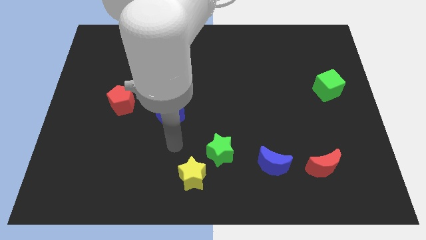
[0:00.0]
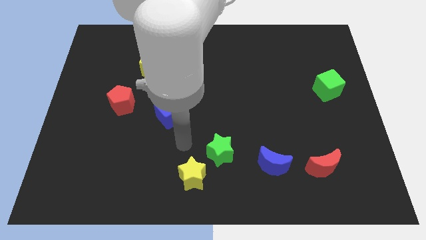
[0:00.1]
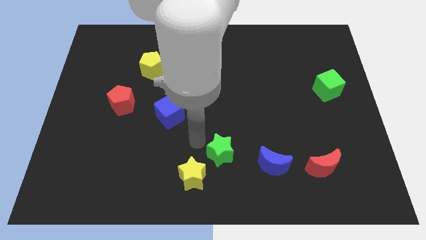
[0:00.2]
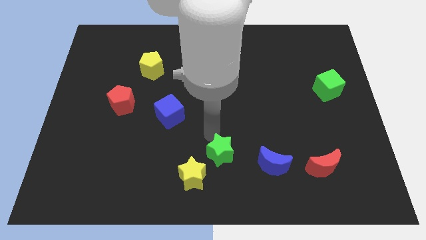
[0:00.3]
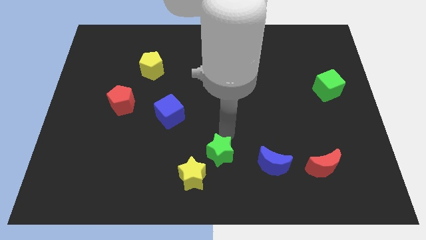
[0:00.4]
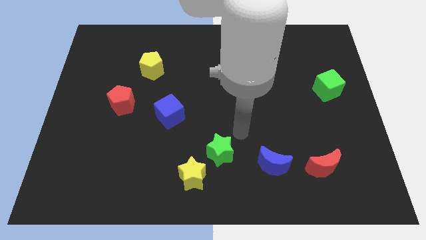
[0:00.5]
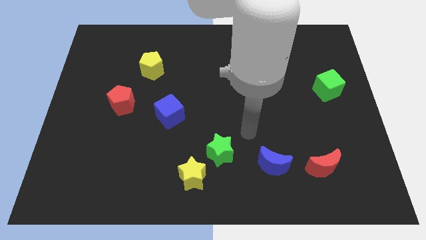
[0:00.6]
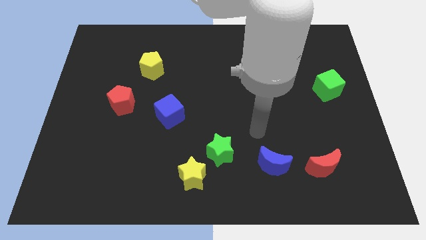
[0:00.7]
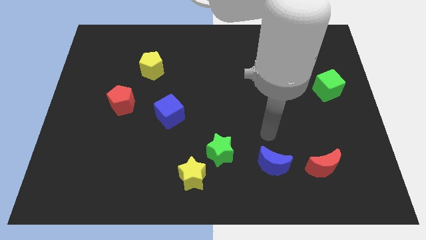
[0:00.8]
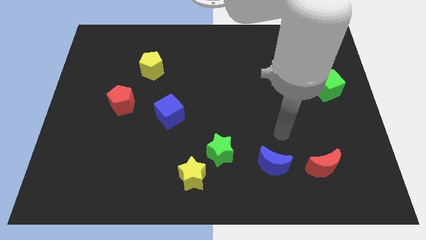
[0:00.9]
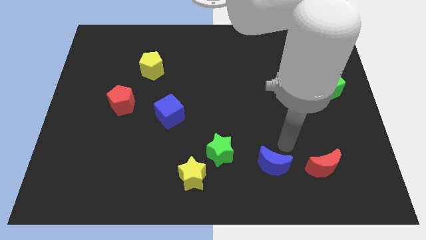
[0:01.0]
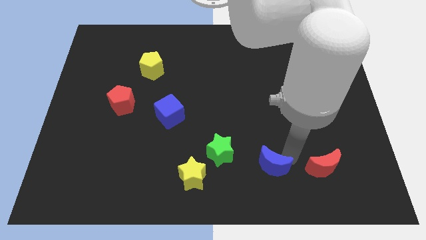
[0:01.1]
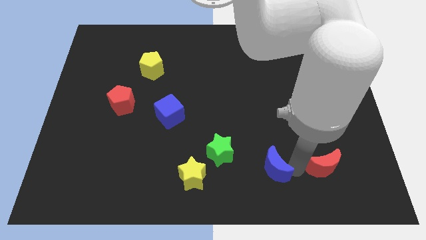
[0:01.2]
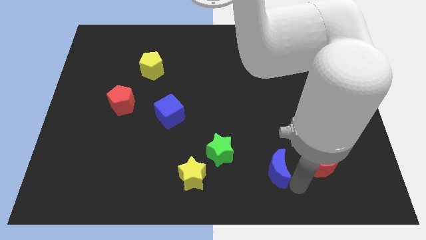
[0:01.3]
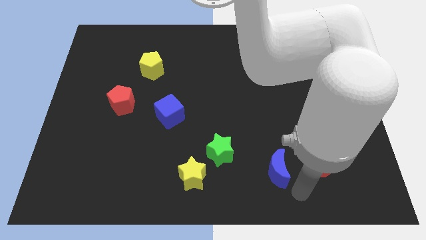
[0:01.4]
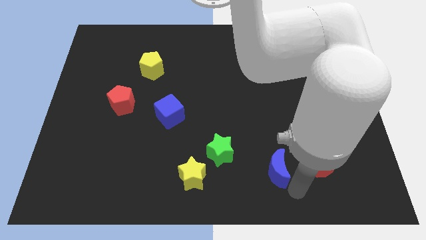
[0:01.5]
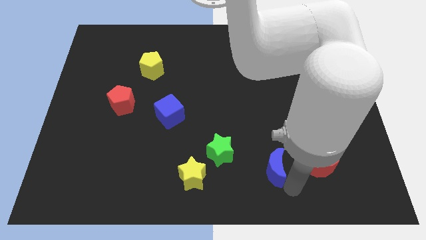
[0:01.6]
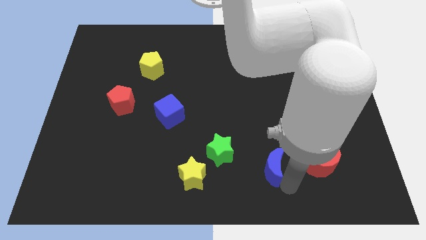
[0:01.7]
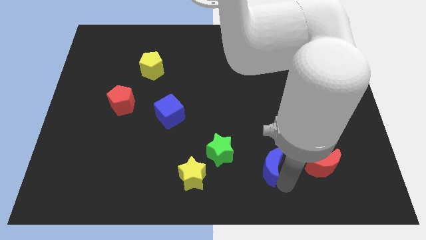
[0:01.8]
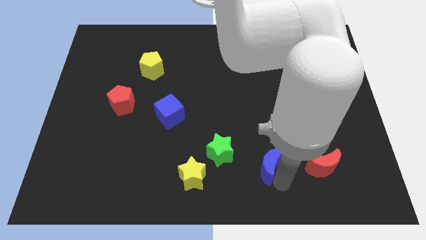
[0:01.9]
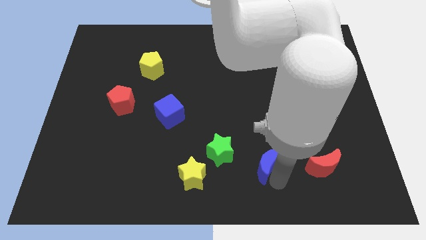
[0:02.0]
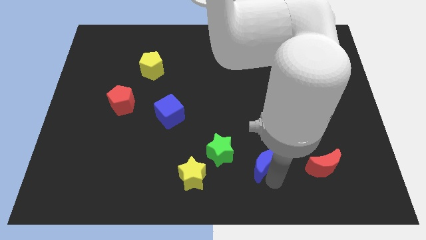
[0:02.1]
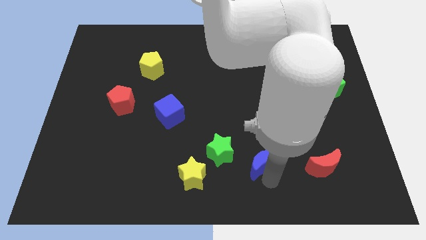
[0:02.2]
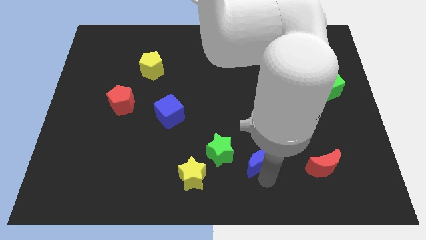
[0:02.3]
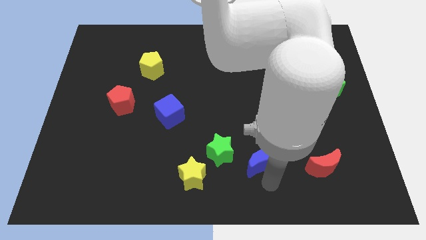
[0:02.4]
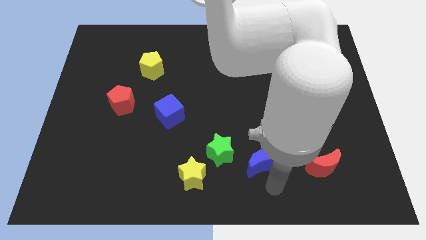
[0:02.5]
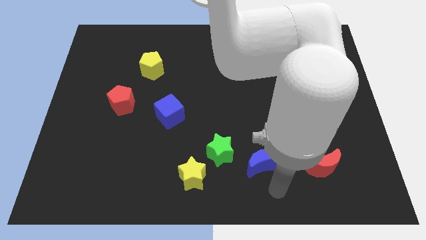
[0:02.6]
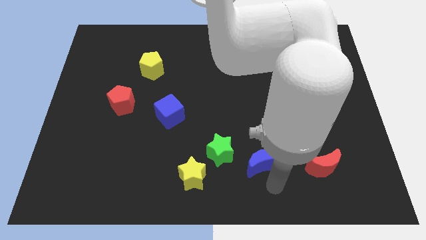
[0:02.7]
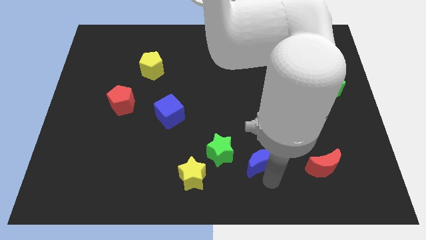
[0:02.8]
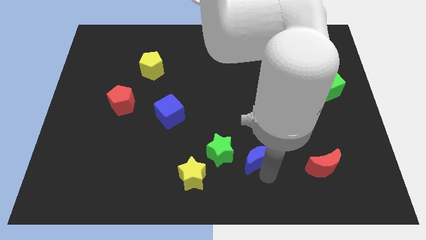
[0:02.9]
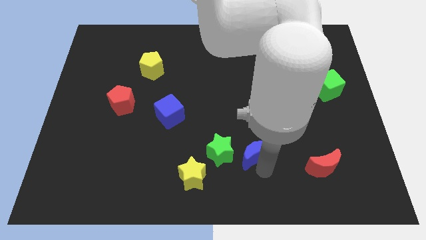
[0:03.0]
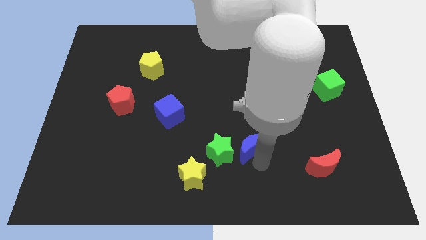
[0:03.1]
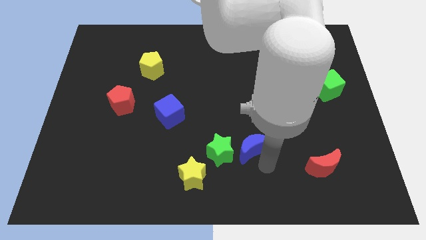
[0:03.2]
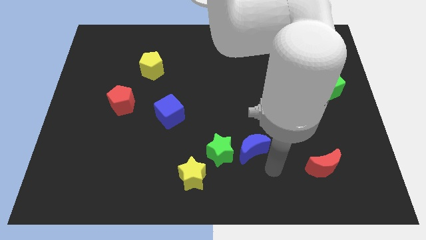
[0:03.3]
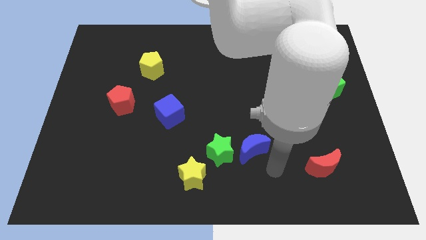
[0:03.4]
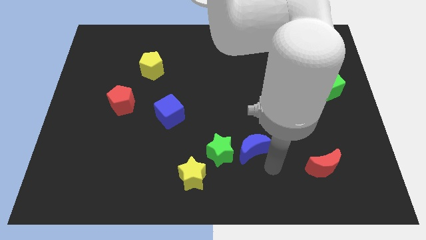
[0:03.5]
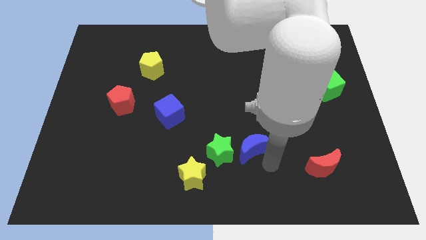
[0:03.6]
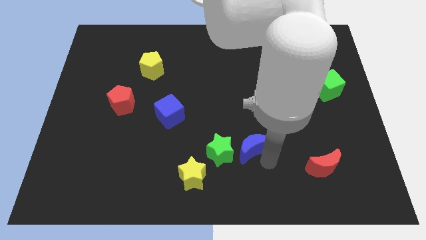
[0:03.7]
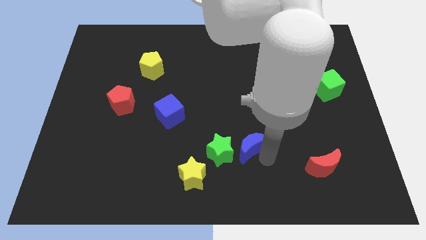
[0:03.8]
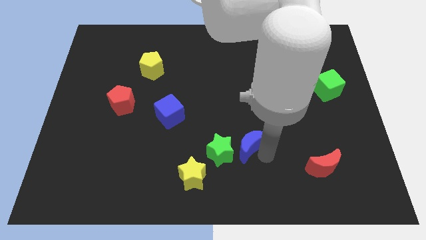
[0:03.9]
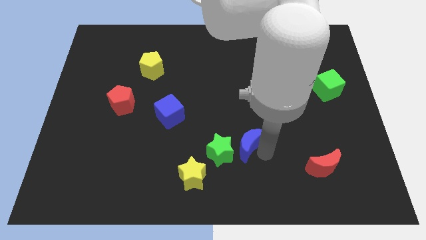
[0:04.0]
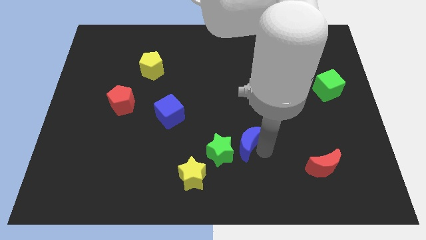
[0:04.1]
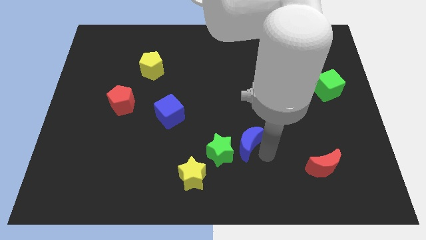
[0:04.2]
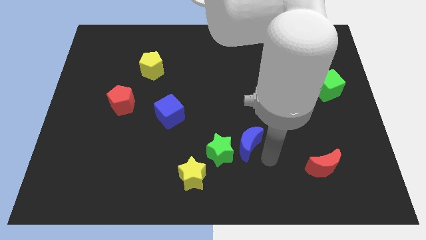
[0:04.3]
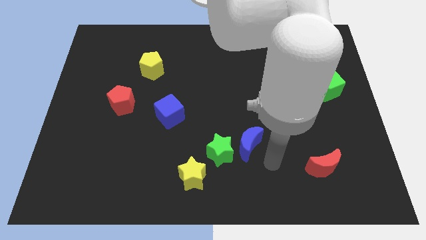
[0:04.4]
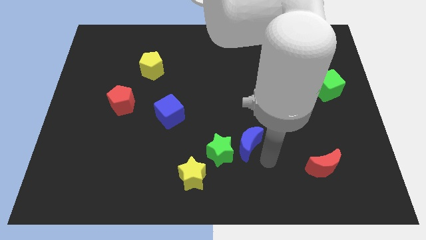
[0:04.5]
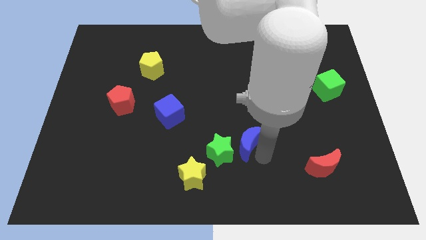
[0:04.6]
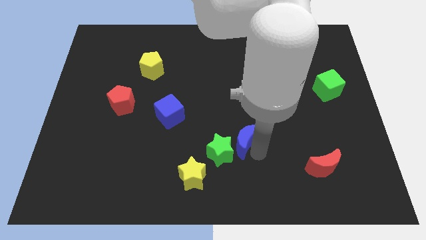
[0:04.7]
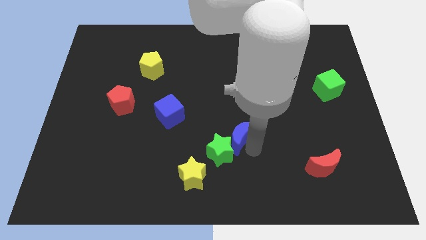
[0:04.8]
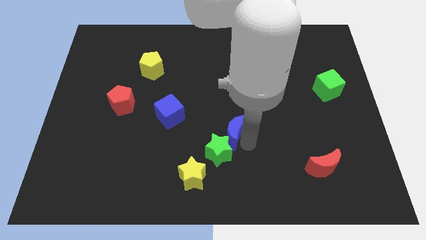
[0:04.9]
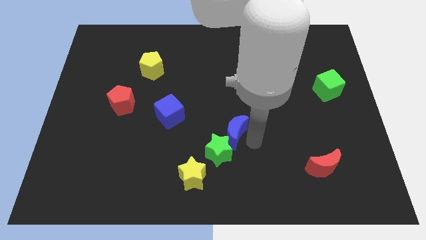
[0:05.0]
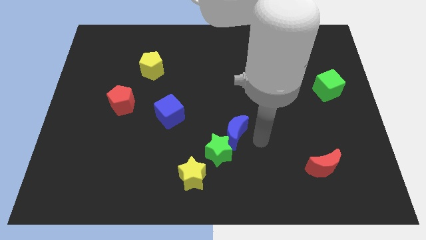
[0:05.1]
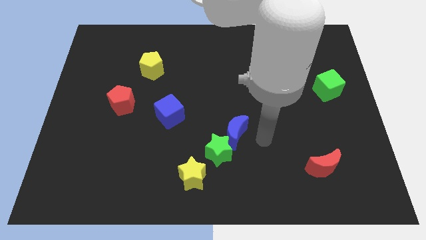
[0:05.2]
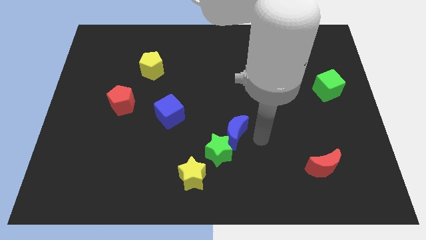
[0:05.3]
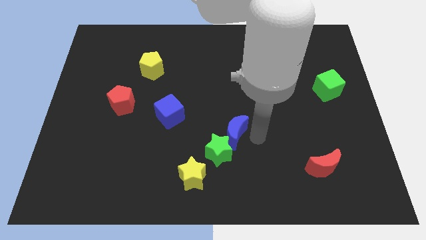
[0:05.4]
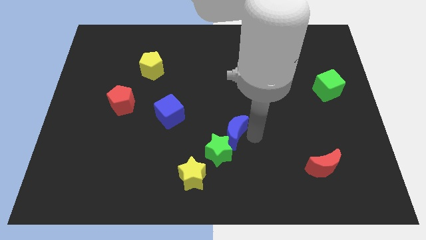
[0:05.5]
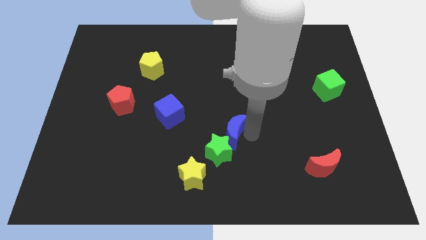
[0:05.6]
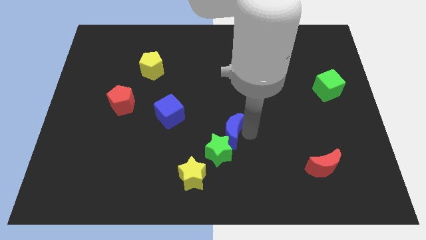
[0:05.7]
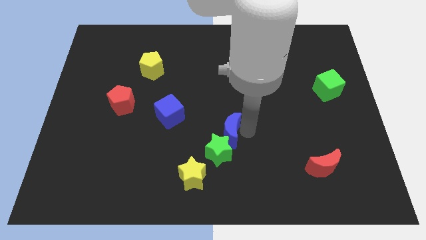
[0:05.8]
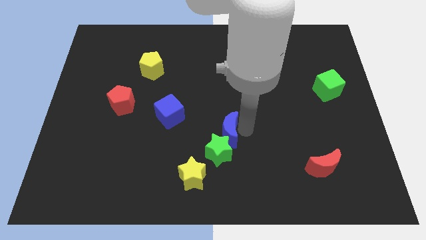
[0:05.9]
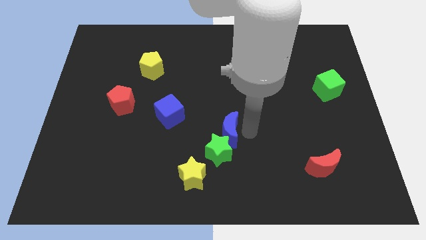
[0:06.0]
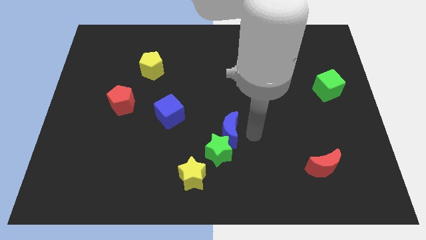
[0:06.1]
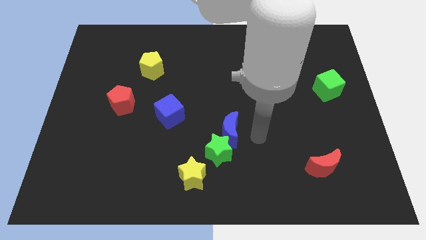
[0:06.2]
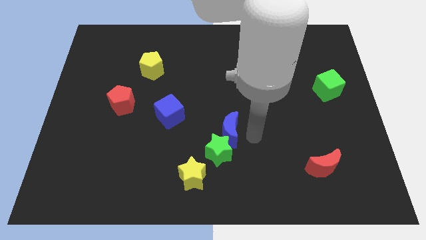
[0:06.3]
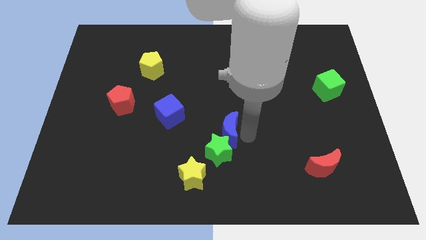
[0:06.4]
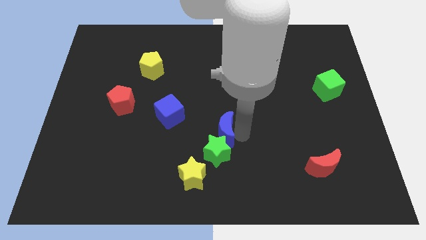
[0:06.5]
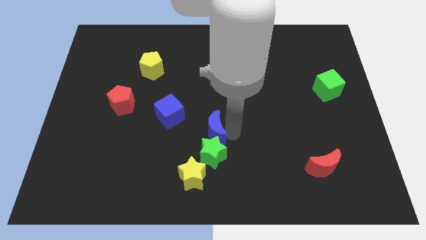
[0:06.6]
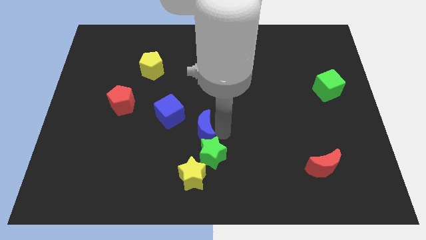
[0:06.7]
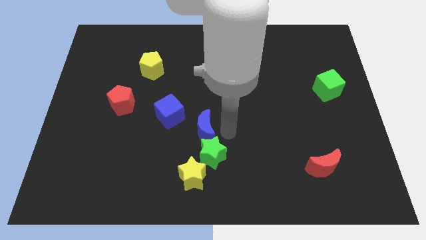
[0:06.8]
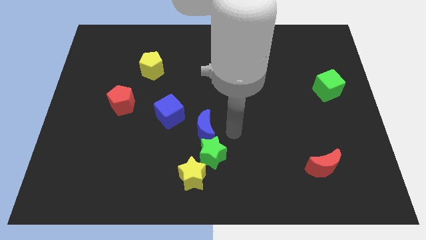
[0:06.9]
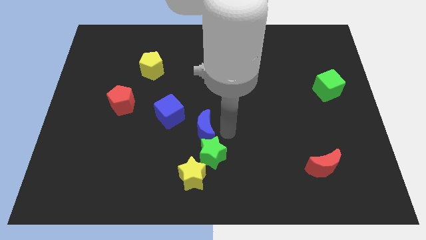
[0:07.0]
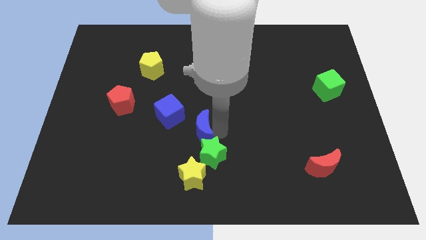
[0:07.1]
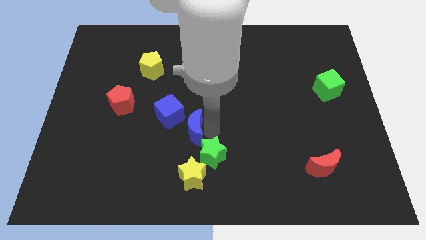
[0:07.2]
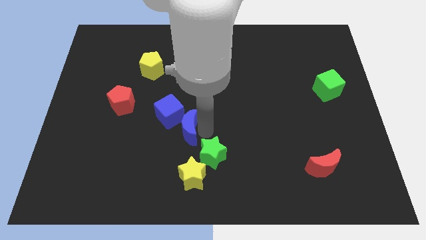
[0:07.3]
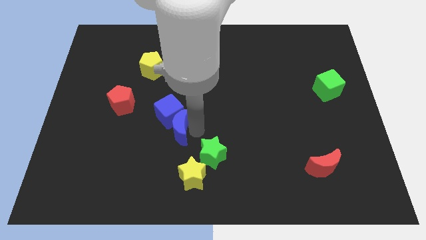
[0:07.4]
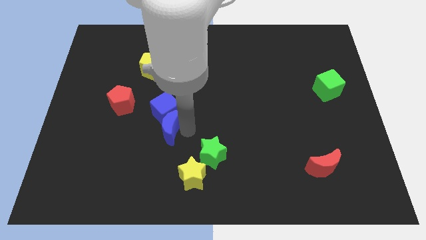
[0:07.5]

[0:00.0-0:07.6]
slide the blue moon to the bottom left of the blue cube

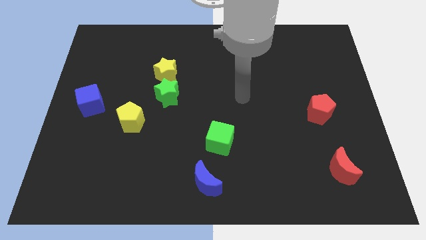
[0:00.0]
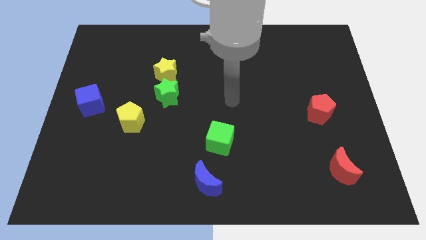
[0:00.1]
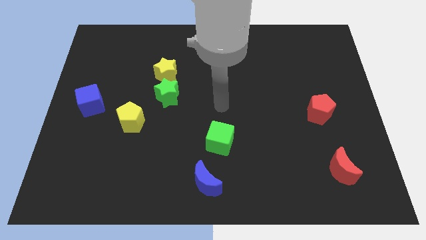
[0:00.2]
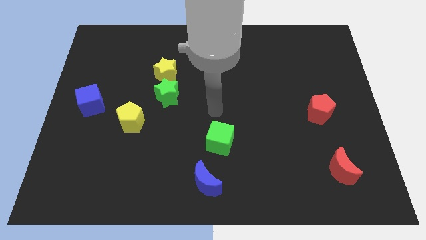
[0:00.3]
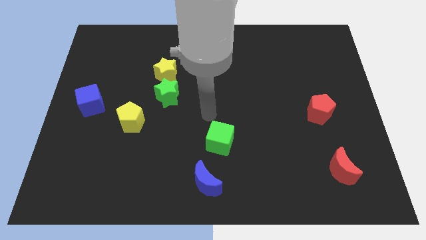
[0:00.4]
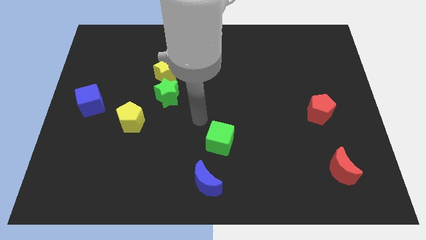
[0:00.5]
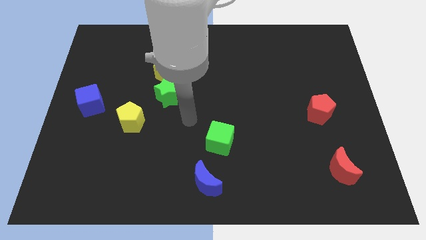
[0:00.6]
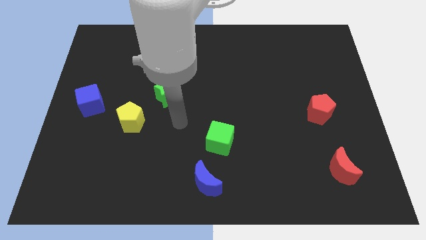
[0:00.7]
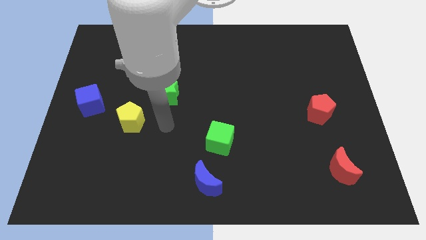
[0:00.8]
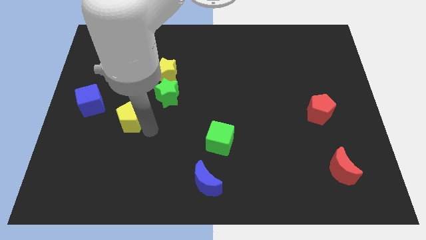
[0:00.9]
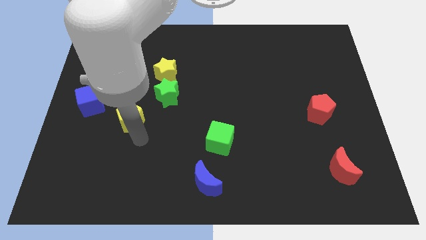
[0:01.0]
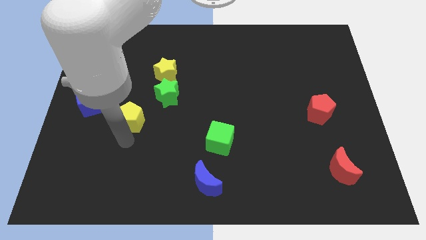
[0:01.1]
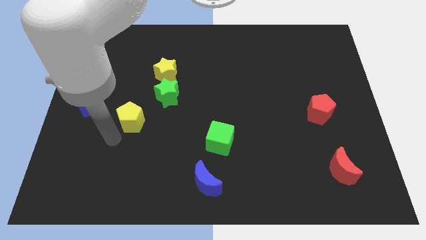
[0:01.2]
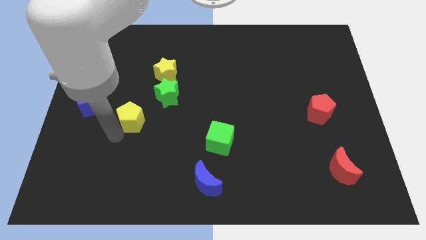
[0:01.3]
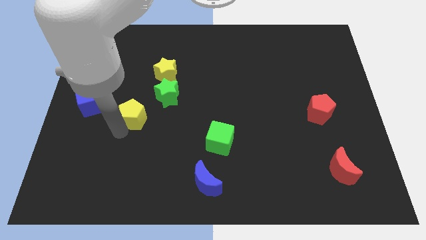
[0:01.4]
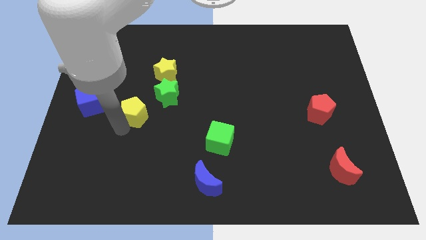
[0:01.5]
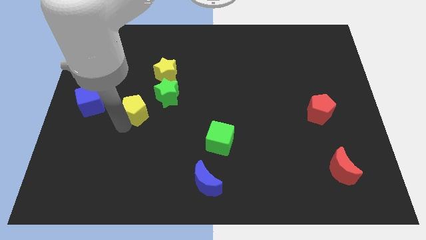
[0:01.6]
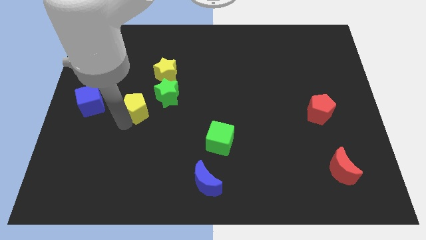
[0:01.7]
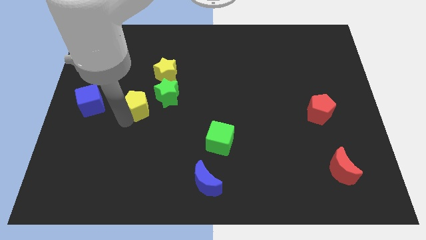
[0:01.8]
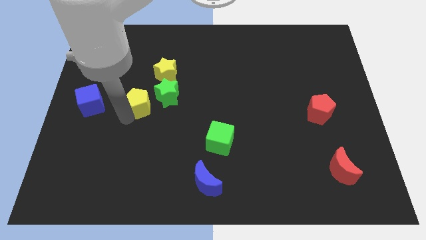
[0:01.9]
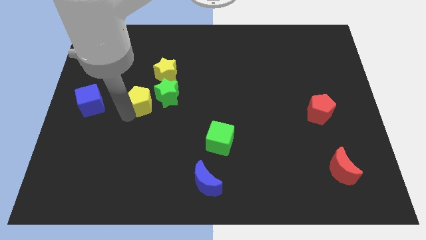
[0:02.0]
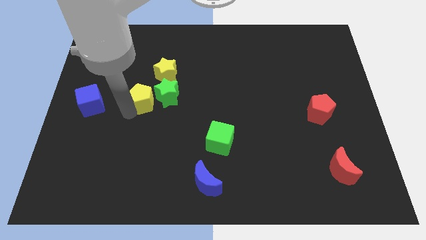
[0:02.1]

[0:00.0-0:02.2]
push the yellow pentagon to the bottom of the yellow star
